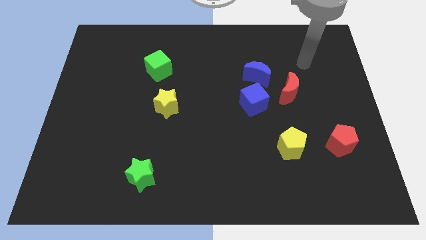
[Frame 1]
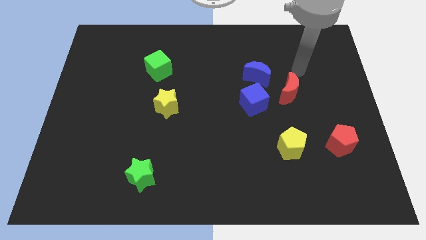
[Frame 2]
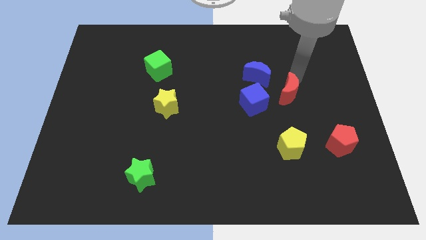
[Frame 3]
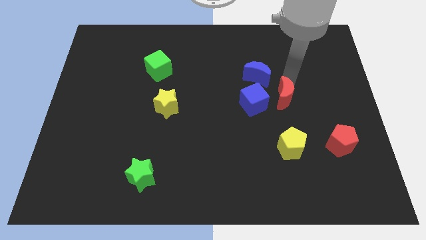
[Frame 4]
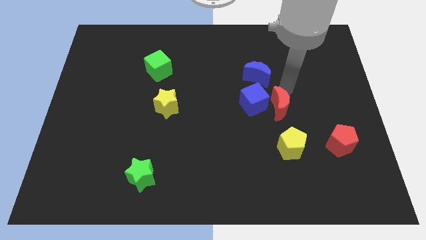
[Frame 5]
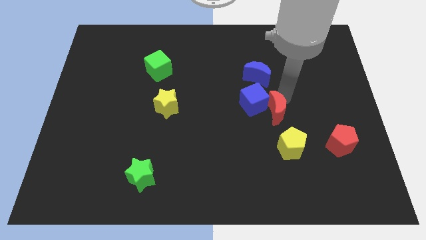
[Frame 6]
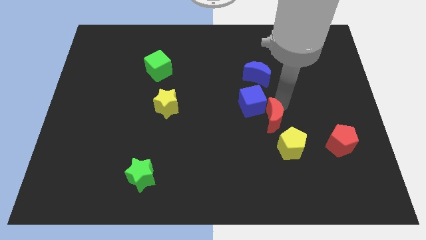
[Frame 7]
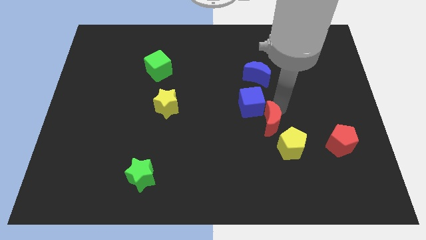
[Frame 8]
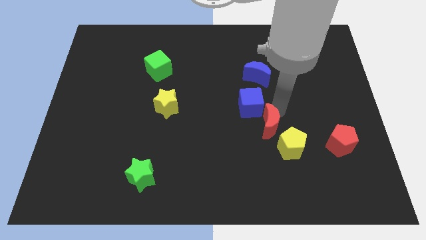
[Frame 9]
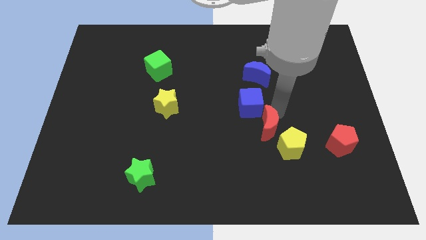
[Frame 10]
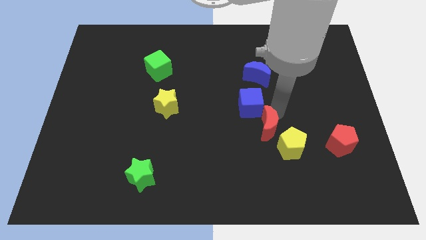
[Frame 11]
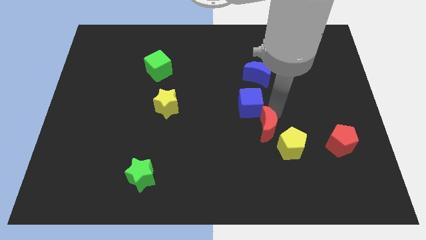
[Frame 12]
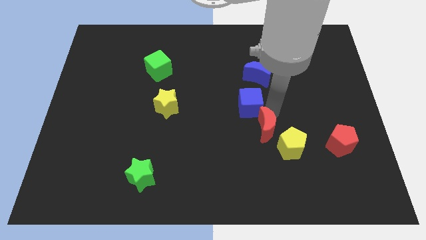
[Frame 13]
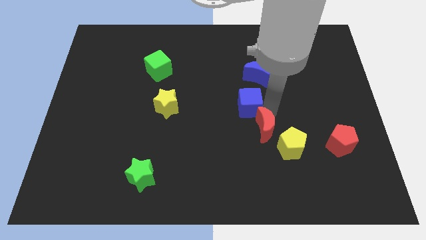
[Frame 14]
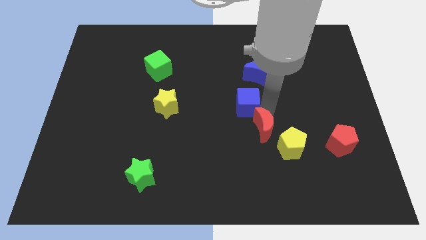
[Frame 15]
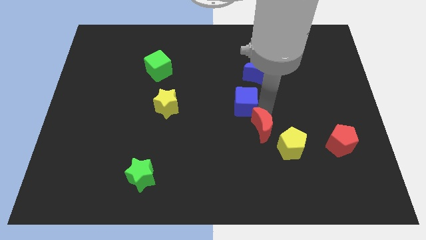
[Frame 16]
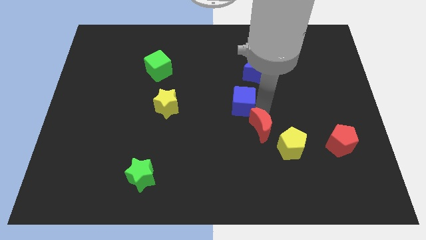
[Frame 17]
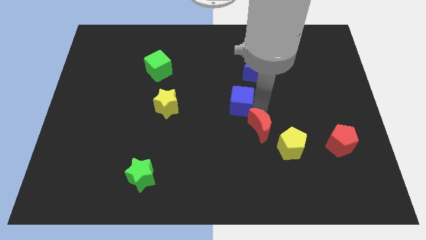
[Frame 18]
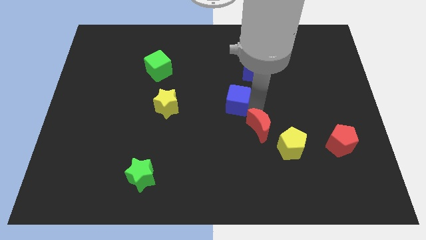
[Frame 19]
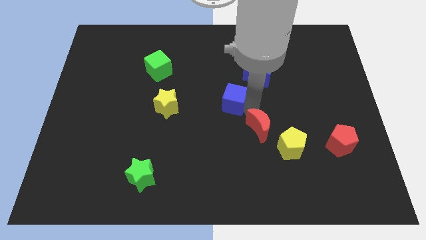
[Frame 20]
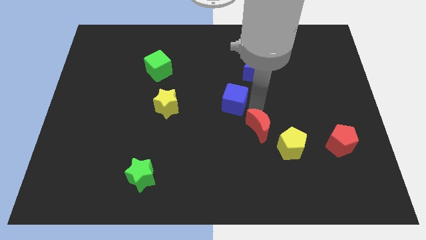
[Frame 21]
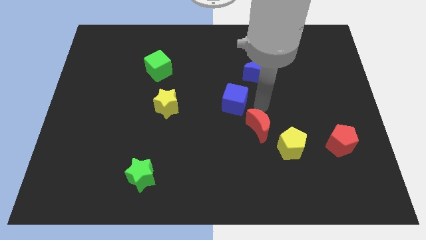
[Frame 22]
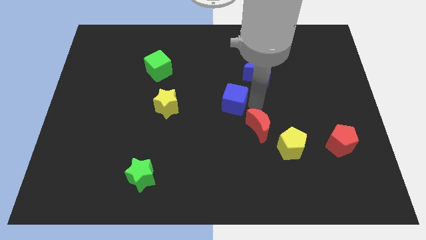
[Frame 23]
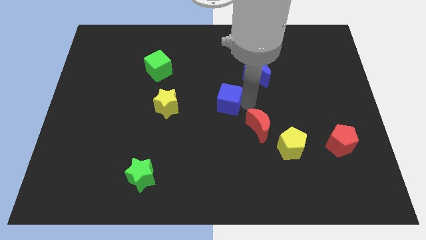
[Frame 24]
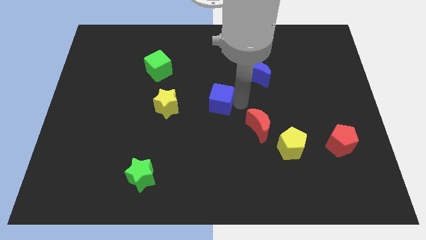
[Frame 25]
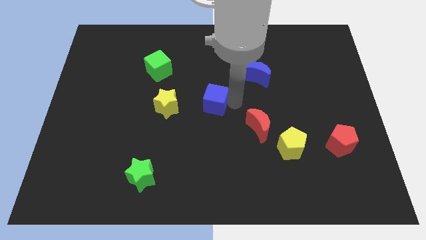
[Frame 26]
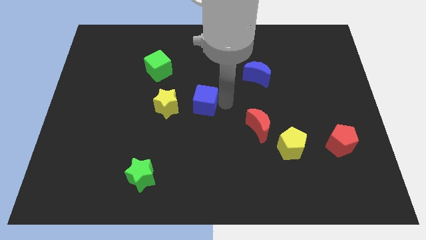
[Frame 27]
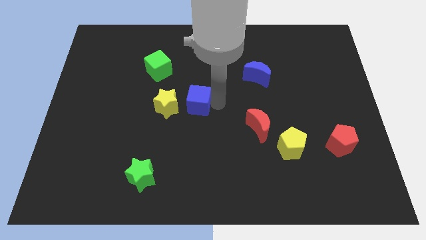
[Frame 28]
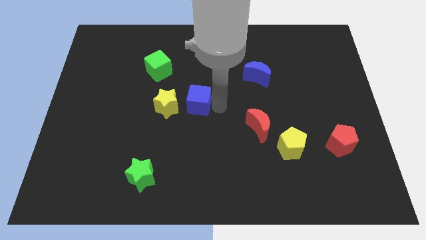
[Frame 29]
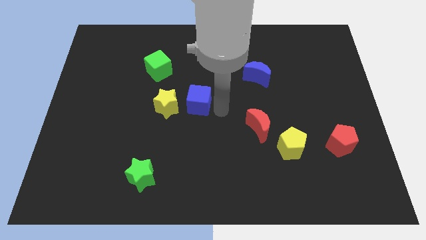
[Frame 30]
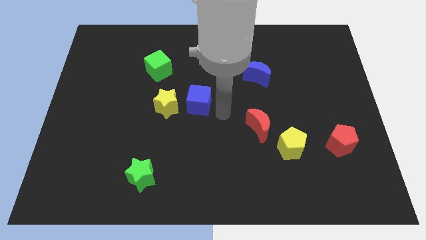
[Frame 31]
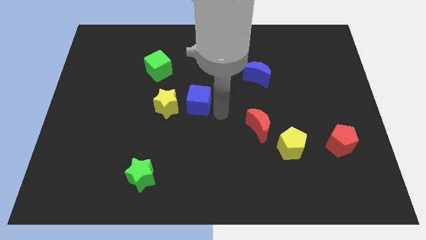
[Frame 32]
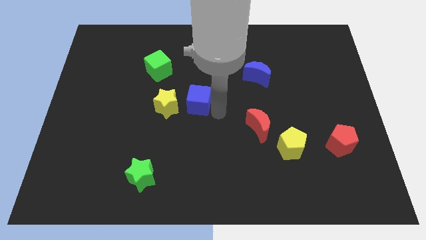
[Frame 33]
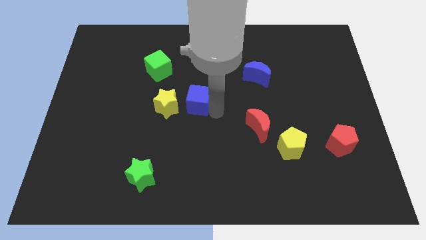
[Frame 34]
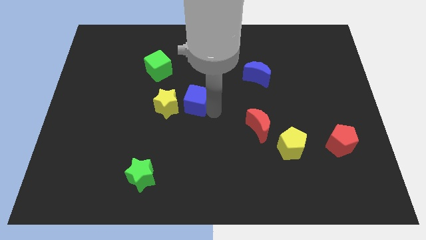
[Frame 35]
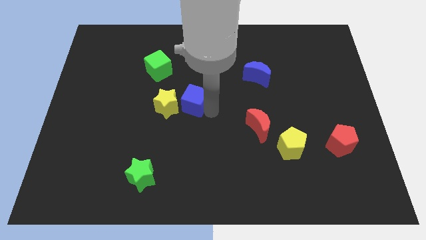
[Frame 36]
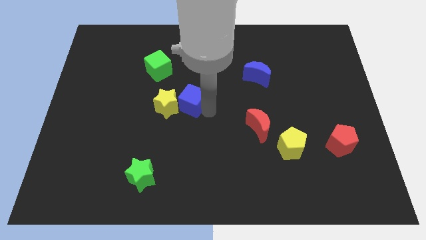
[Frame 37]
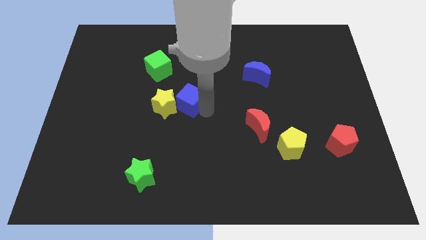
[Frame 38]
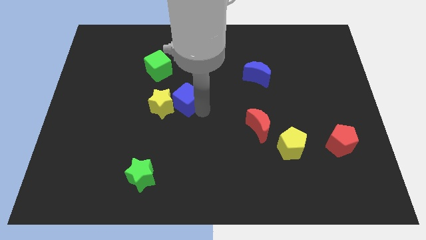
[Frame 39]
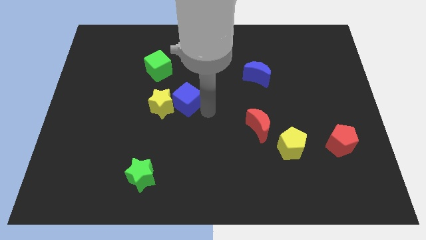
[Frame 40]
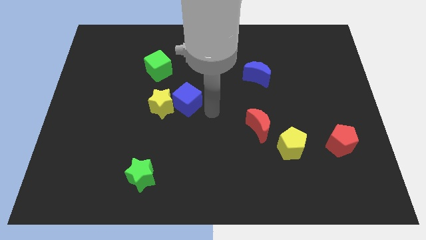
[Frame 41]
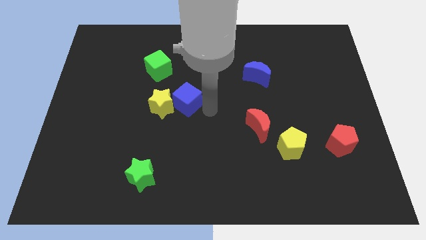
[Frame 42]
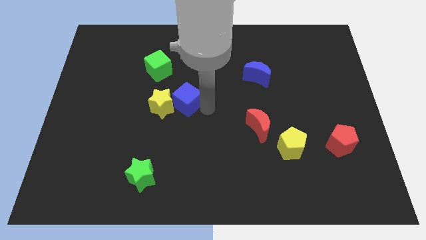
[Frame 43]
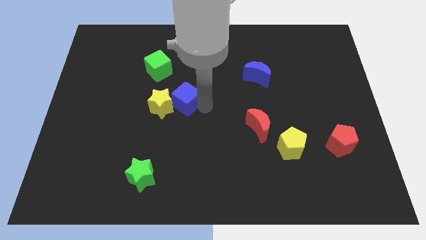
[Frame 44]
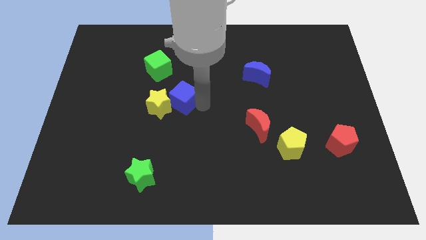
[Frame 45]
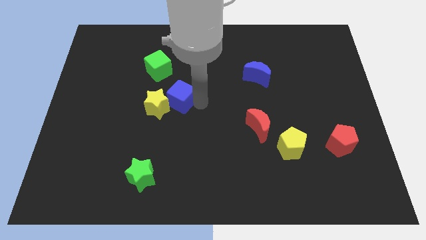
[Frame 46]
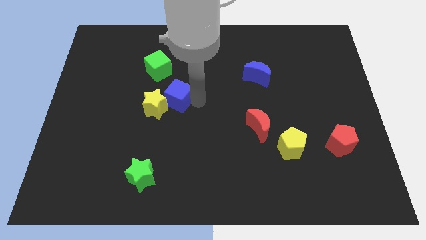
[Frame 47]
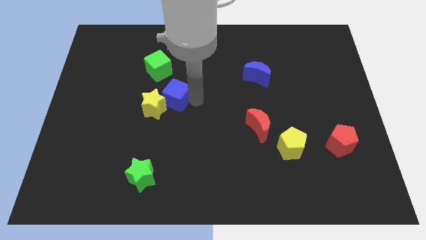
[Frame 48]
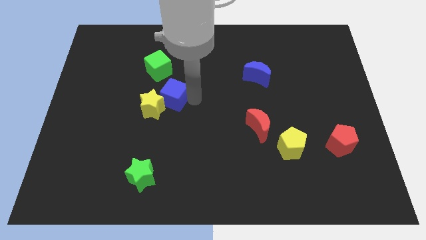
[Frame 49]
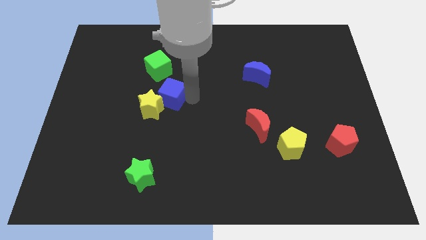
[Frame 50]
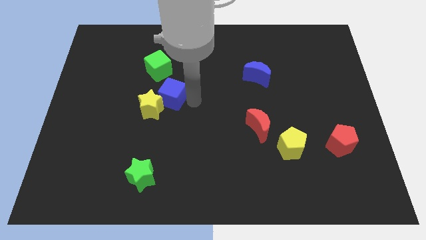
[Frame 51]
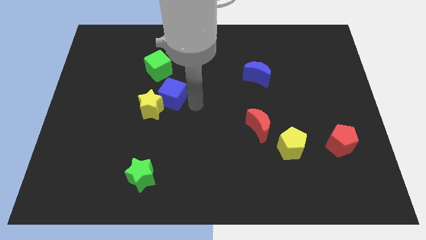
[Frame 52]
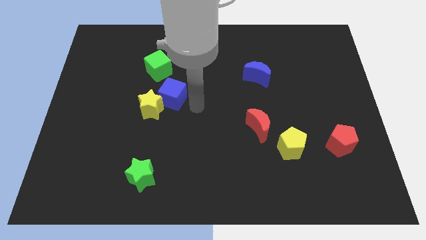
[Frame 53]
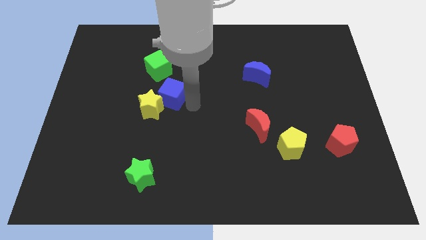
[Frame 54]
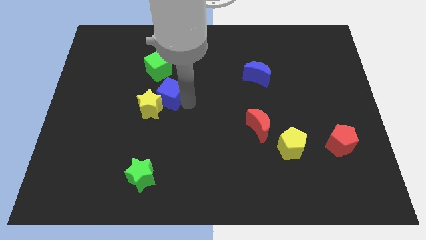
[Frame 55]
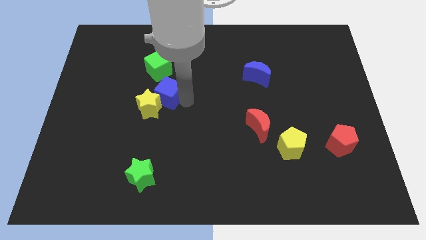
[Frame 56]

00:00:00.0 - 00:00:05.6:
move the blue cube left

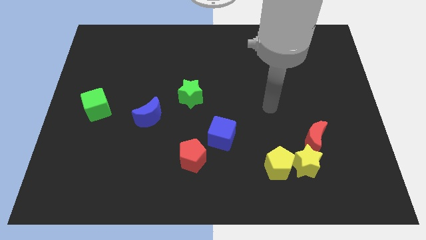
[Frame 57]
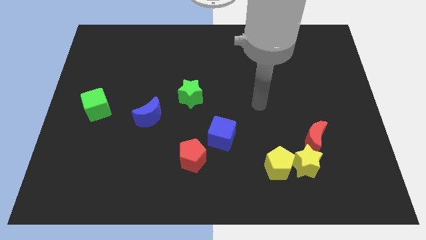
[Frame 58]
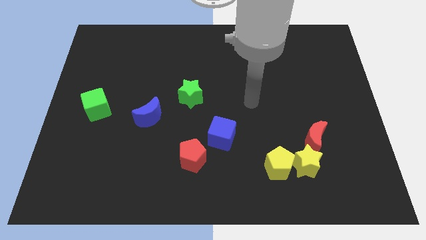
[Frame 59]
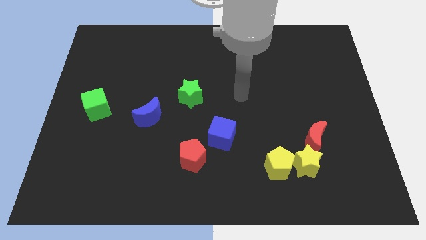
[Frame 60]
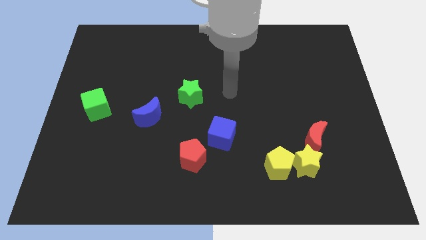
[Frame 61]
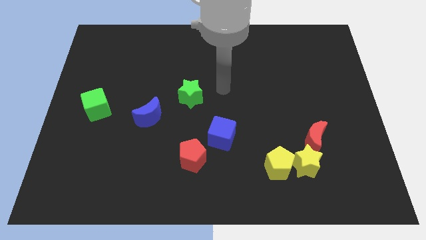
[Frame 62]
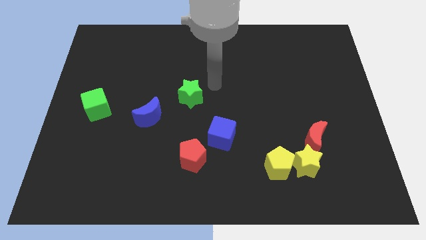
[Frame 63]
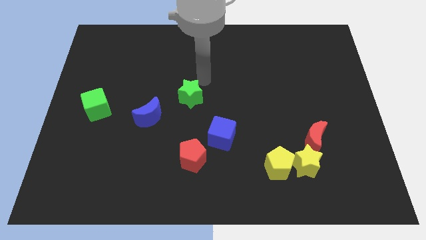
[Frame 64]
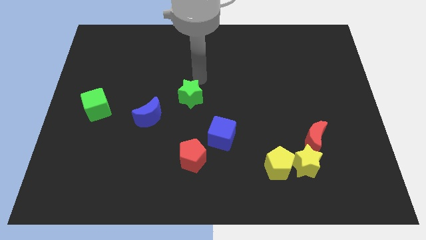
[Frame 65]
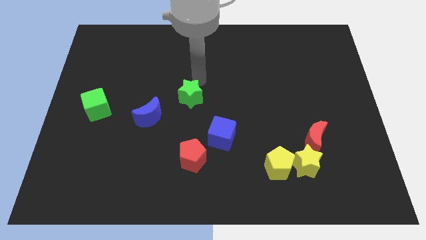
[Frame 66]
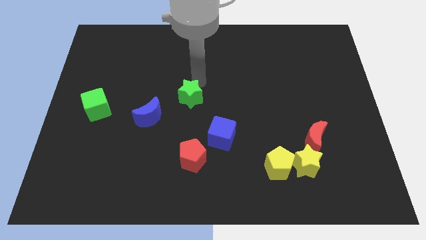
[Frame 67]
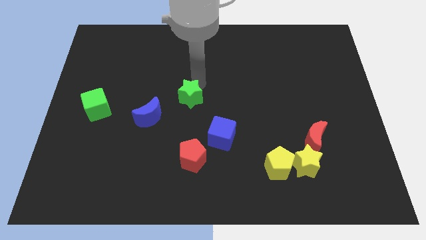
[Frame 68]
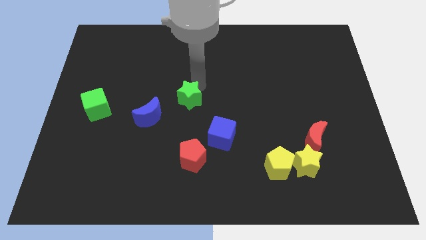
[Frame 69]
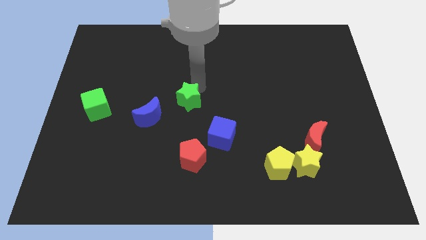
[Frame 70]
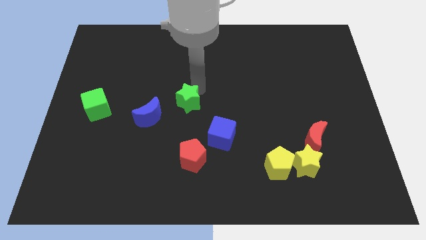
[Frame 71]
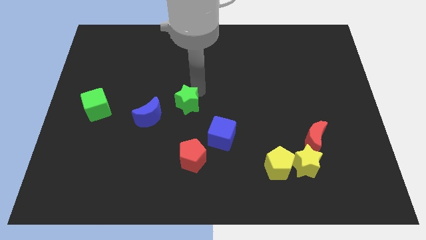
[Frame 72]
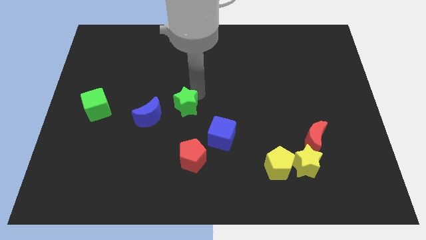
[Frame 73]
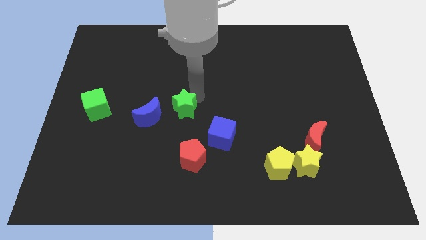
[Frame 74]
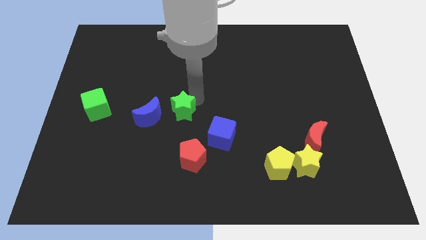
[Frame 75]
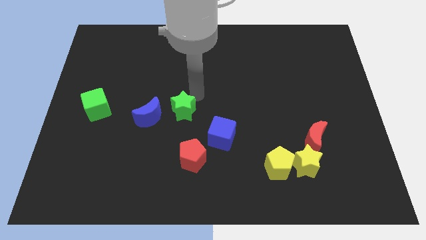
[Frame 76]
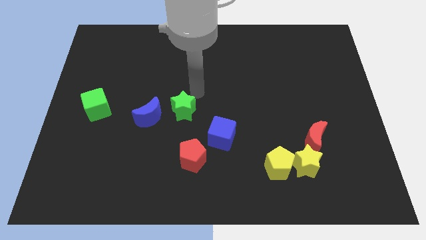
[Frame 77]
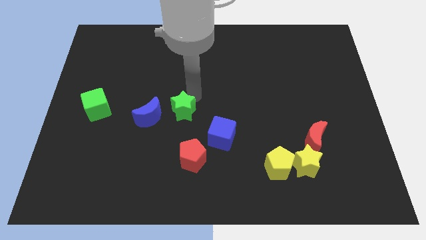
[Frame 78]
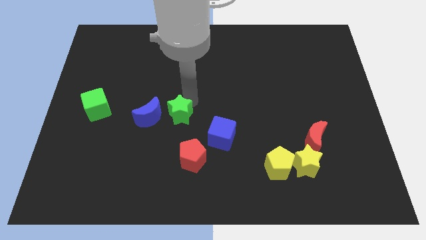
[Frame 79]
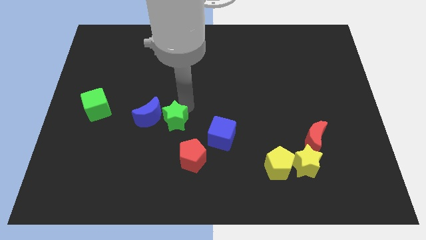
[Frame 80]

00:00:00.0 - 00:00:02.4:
slightly move the green star downwards and then to the left
